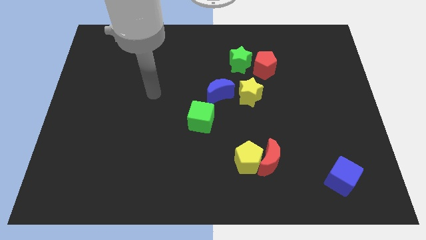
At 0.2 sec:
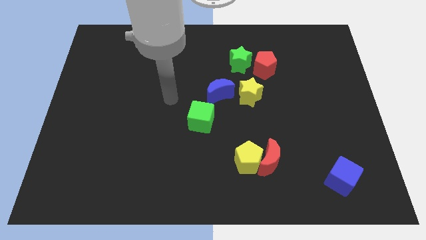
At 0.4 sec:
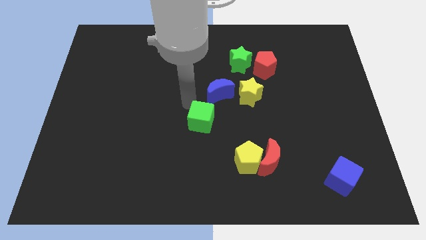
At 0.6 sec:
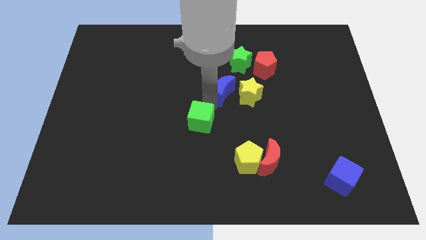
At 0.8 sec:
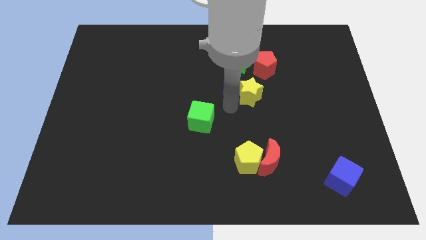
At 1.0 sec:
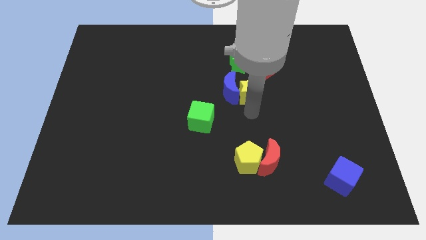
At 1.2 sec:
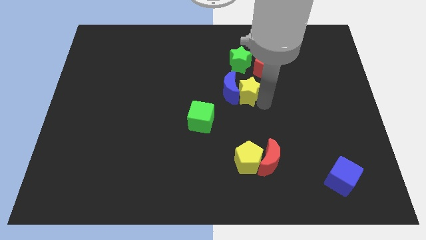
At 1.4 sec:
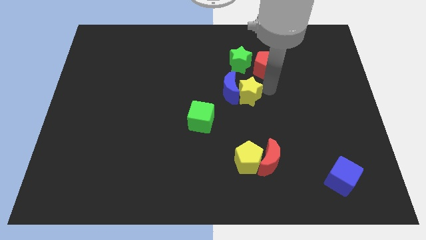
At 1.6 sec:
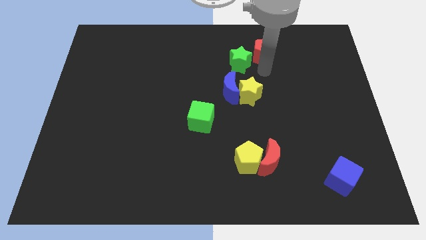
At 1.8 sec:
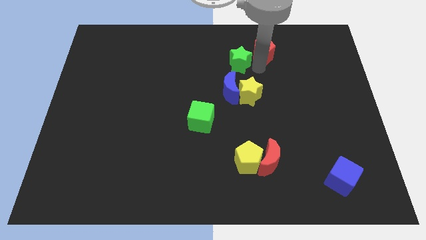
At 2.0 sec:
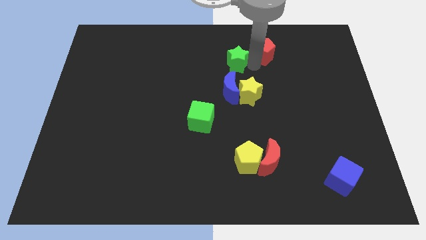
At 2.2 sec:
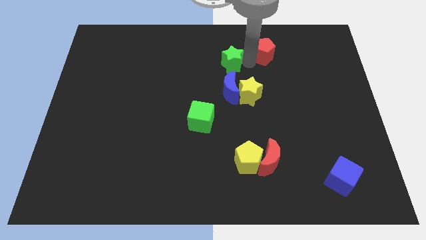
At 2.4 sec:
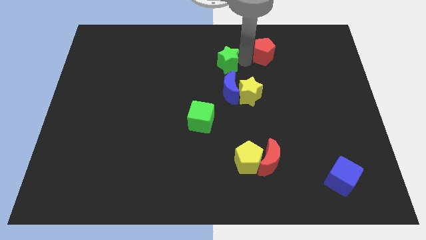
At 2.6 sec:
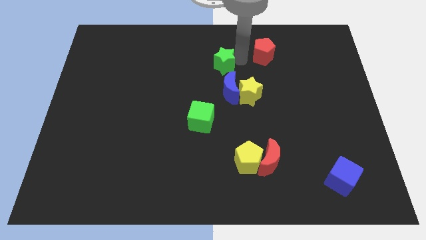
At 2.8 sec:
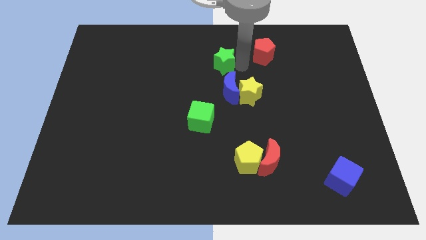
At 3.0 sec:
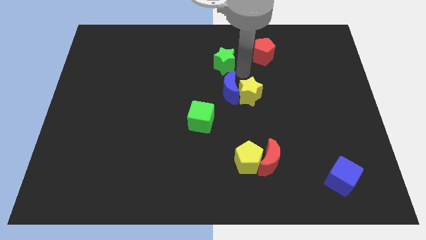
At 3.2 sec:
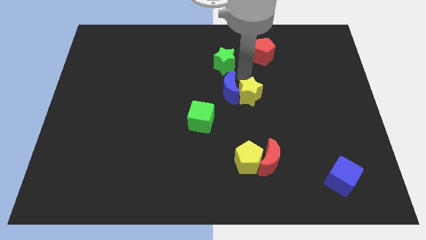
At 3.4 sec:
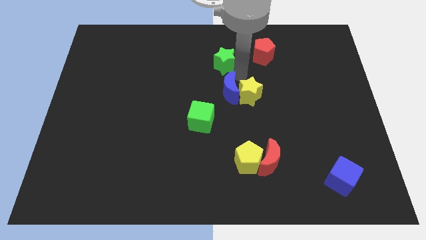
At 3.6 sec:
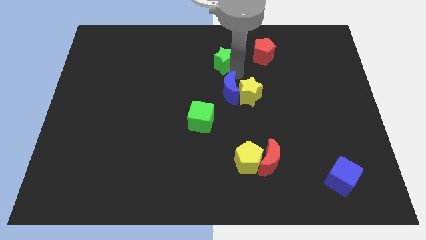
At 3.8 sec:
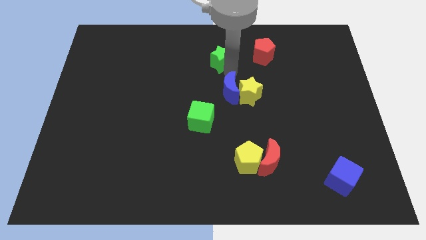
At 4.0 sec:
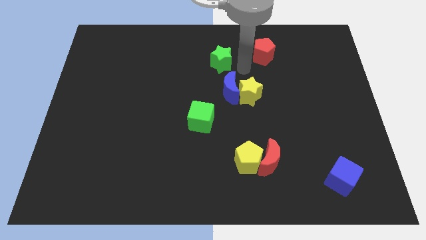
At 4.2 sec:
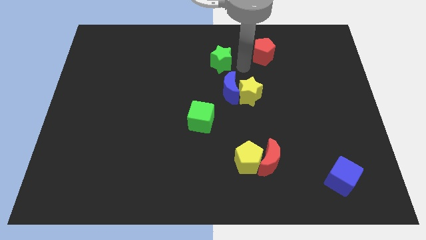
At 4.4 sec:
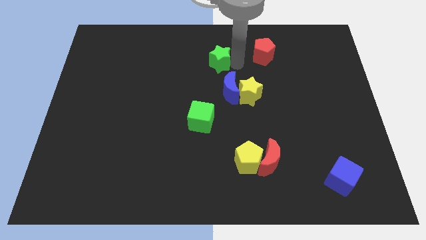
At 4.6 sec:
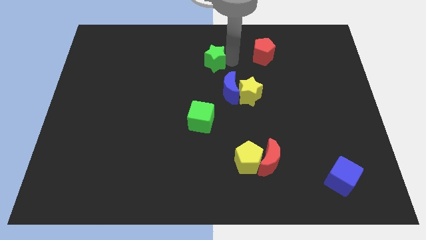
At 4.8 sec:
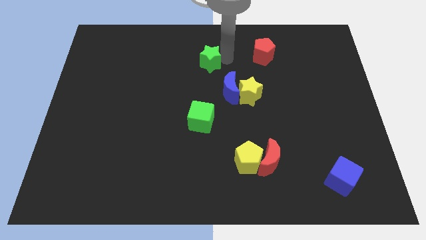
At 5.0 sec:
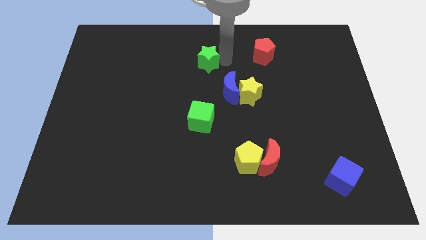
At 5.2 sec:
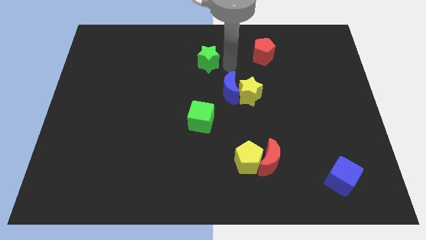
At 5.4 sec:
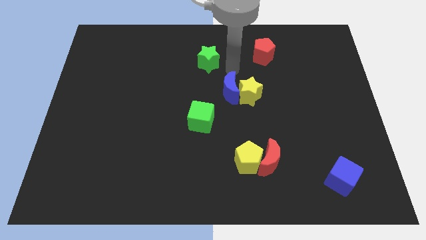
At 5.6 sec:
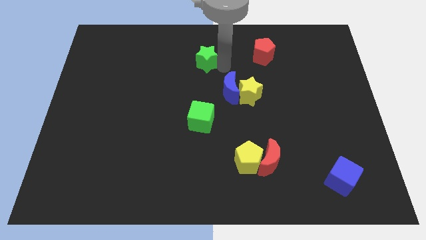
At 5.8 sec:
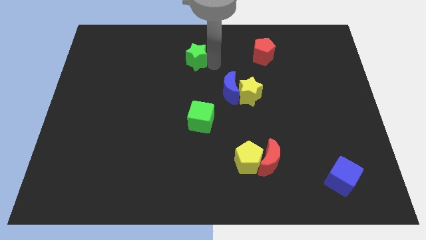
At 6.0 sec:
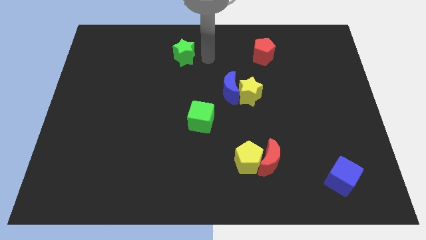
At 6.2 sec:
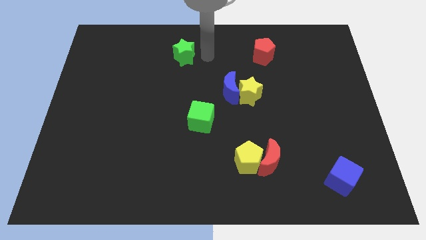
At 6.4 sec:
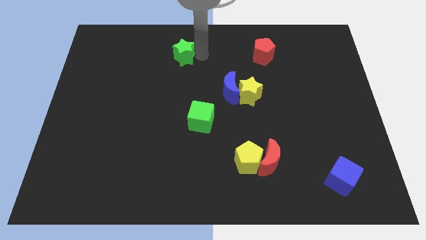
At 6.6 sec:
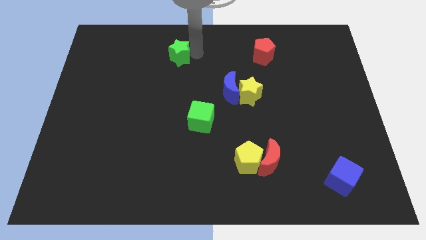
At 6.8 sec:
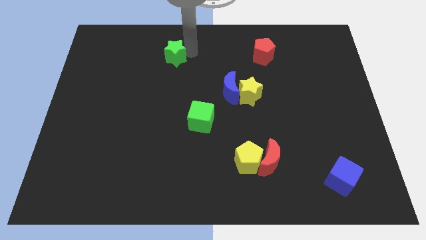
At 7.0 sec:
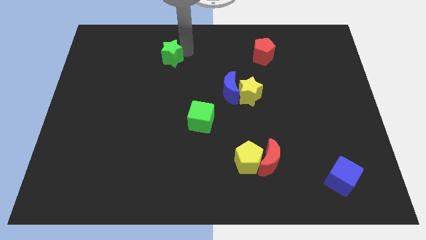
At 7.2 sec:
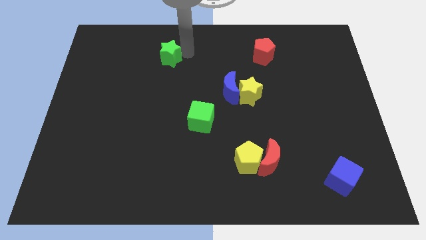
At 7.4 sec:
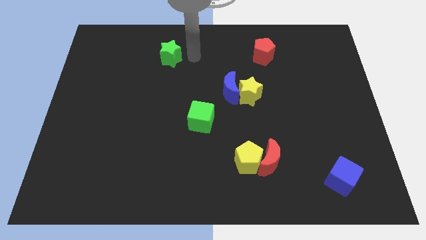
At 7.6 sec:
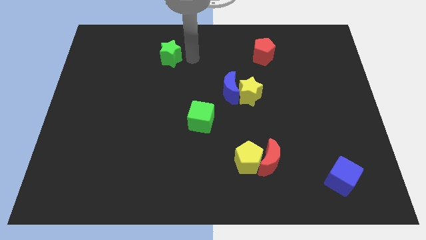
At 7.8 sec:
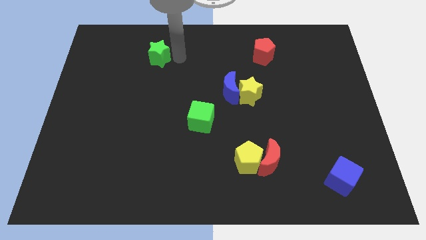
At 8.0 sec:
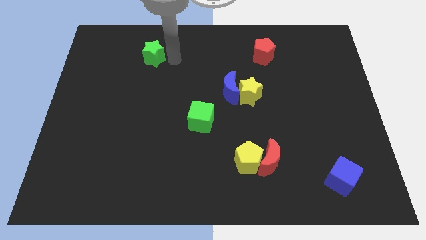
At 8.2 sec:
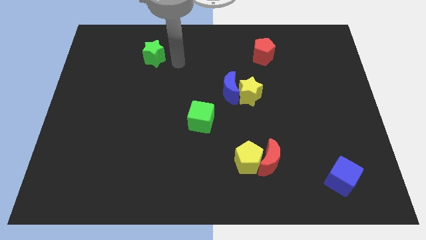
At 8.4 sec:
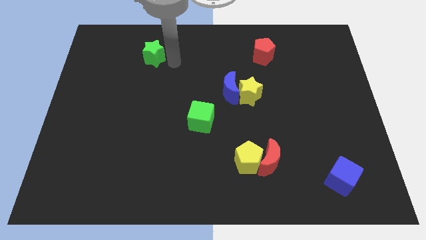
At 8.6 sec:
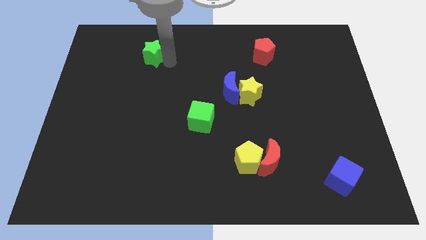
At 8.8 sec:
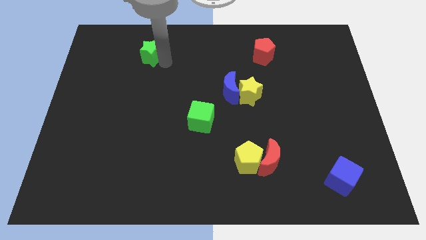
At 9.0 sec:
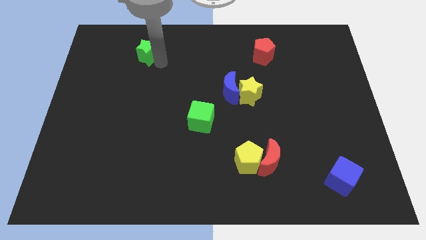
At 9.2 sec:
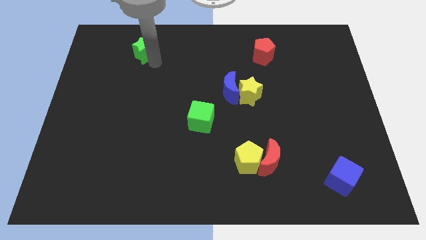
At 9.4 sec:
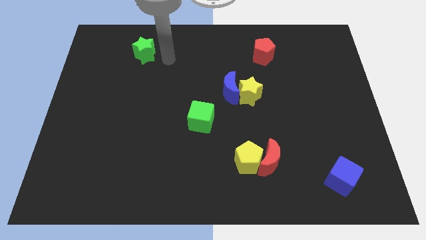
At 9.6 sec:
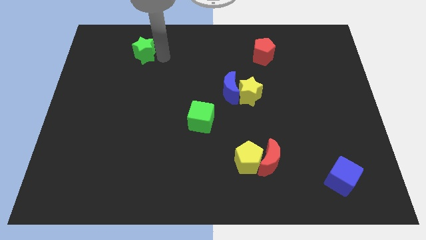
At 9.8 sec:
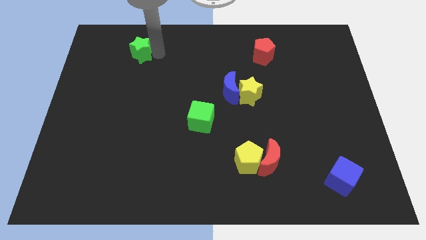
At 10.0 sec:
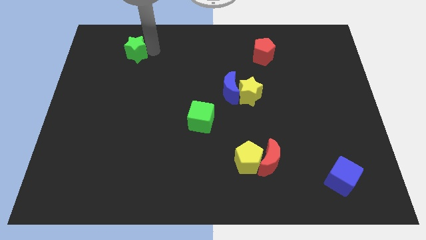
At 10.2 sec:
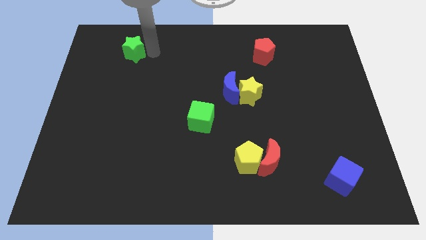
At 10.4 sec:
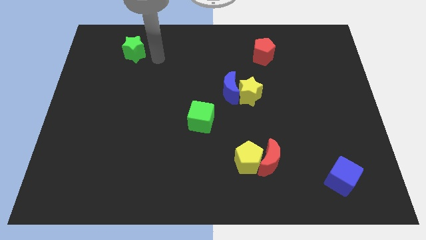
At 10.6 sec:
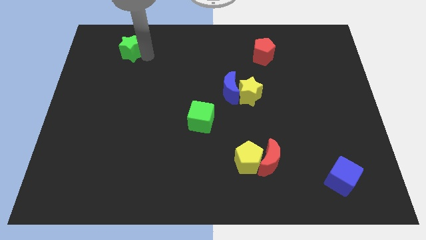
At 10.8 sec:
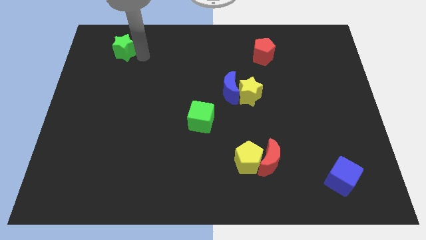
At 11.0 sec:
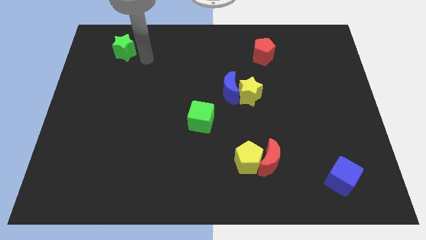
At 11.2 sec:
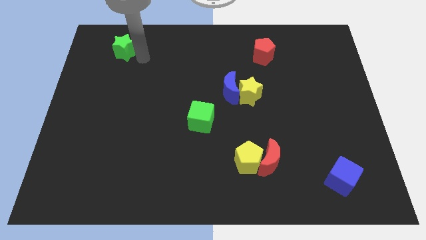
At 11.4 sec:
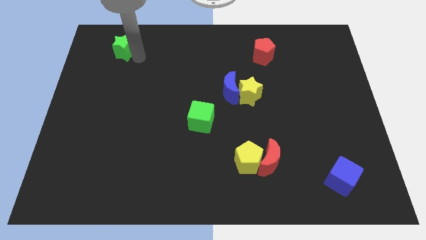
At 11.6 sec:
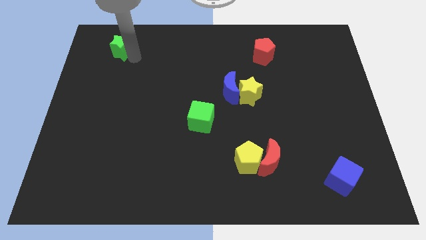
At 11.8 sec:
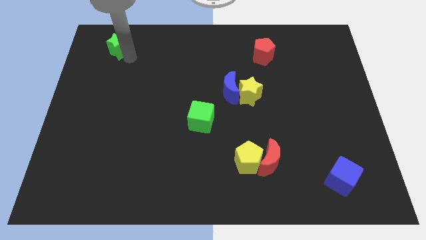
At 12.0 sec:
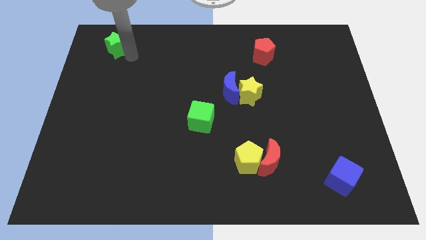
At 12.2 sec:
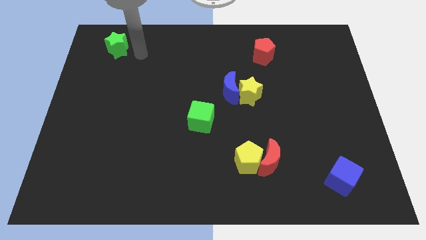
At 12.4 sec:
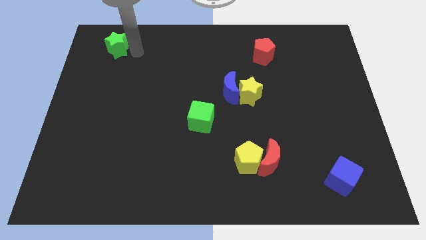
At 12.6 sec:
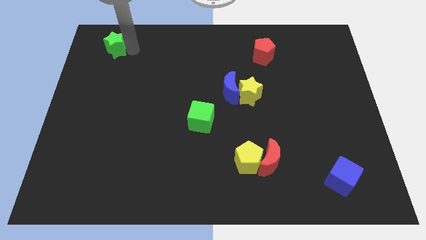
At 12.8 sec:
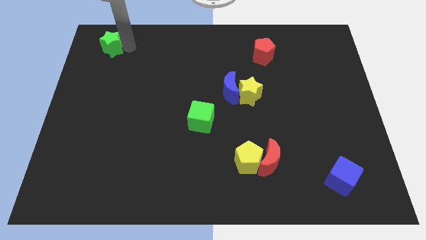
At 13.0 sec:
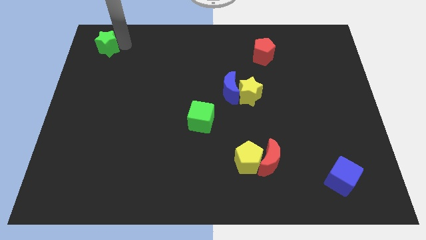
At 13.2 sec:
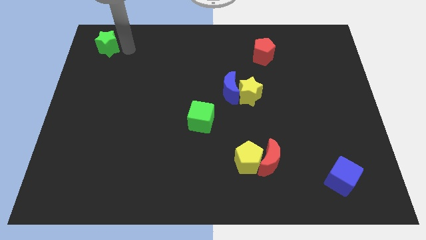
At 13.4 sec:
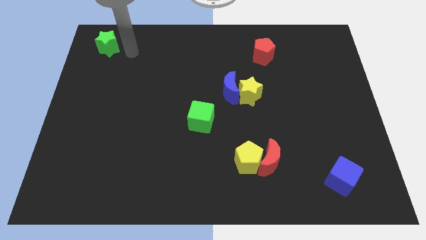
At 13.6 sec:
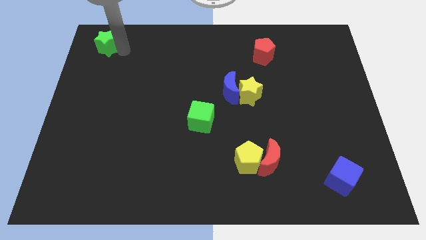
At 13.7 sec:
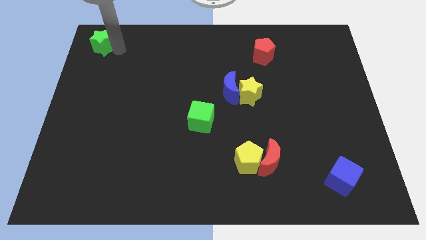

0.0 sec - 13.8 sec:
move the green star to the top left corner

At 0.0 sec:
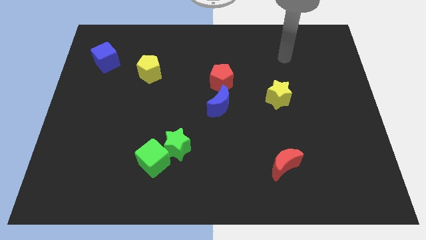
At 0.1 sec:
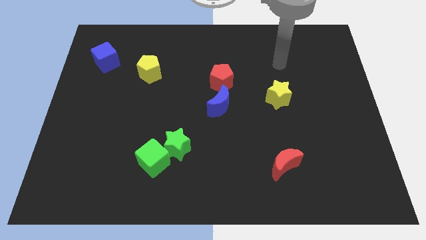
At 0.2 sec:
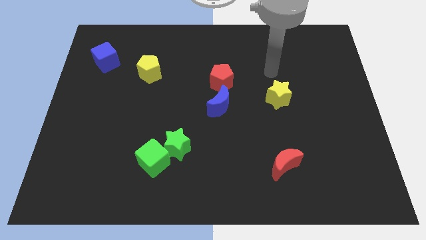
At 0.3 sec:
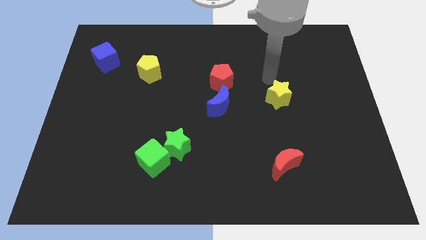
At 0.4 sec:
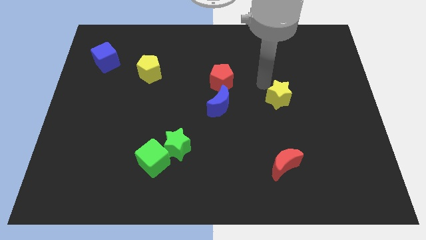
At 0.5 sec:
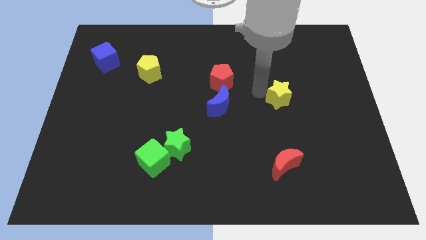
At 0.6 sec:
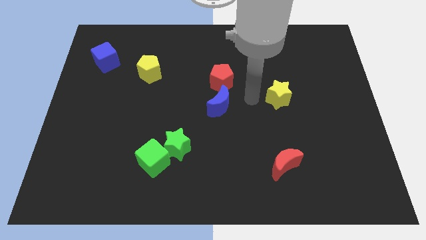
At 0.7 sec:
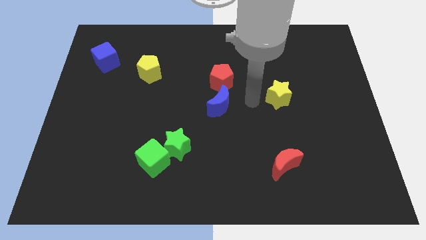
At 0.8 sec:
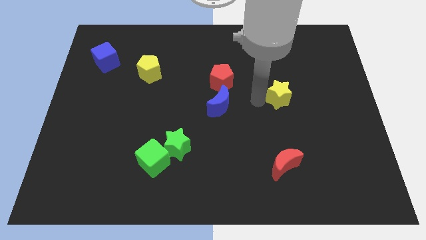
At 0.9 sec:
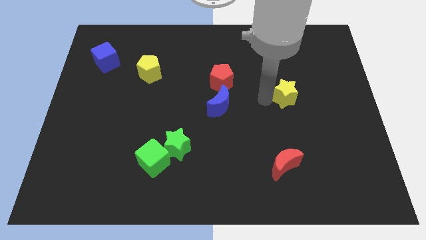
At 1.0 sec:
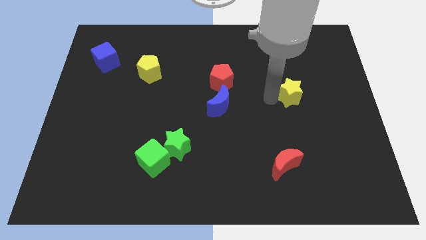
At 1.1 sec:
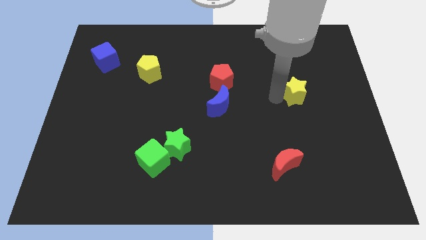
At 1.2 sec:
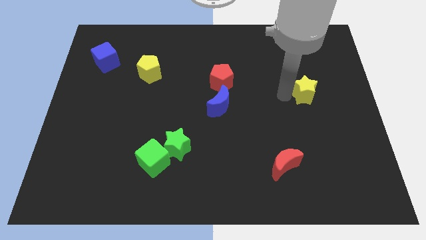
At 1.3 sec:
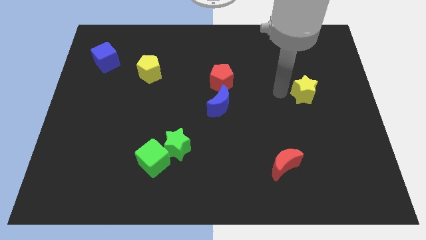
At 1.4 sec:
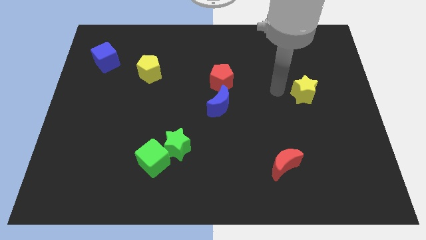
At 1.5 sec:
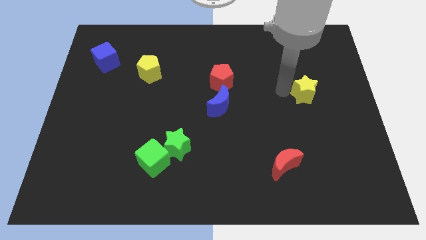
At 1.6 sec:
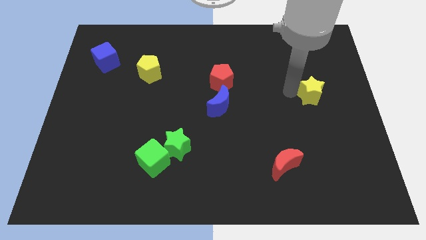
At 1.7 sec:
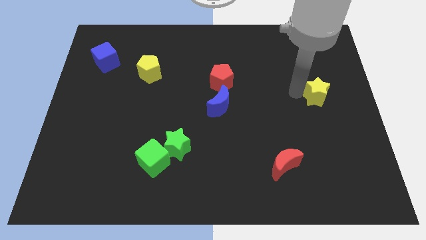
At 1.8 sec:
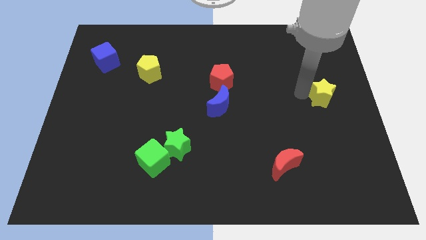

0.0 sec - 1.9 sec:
push the yellow star to the right side
